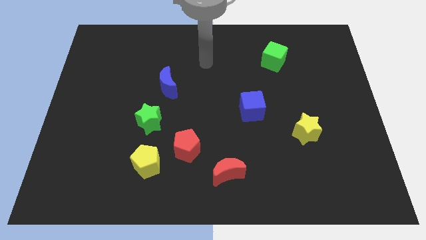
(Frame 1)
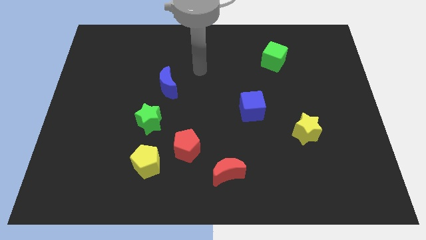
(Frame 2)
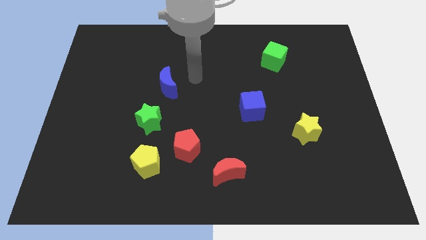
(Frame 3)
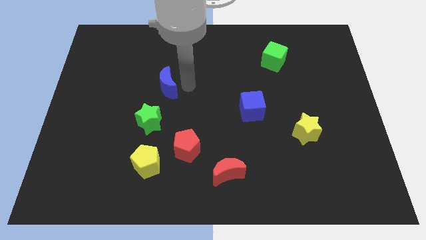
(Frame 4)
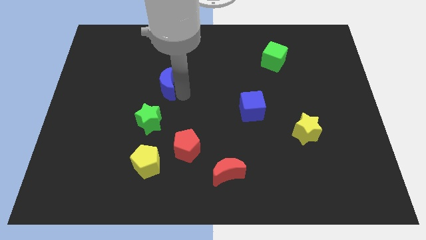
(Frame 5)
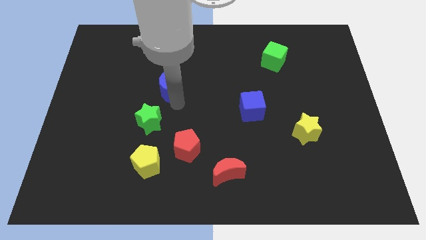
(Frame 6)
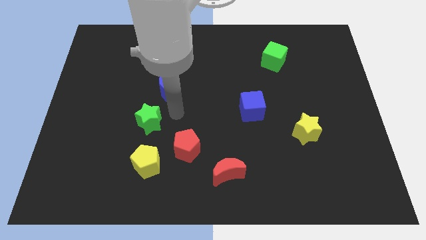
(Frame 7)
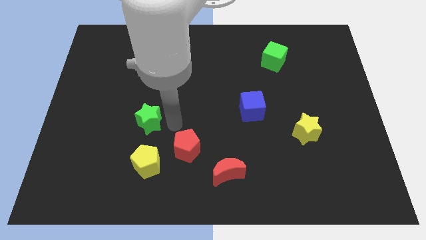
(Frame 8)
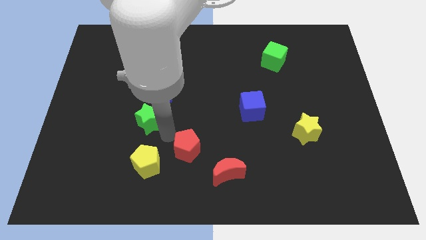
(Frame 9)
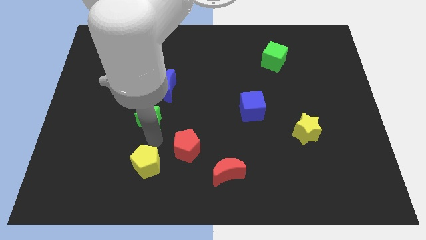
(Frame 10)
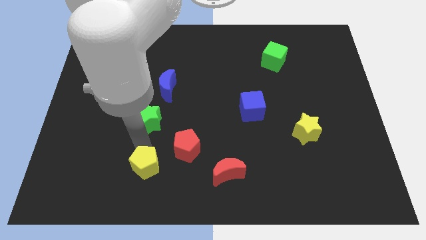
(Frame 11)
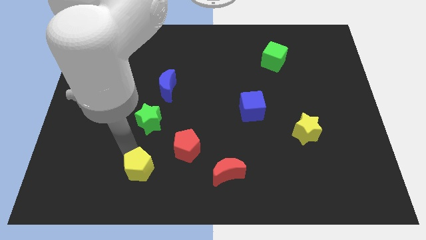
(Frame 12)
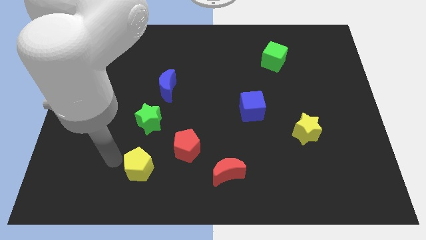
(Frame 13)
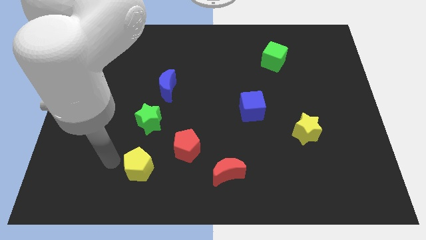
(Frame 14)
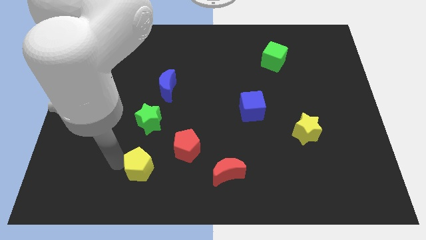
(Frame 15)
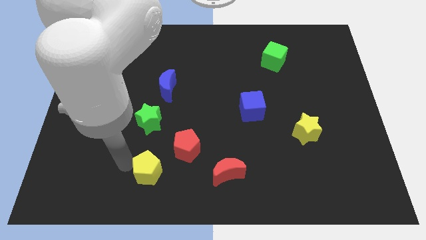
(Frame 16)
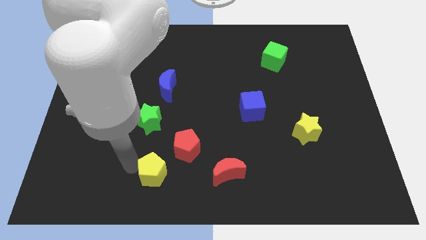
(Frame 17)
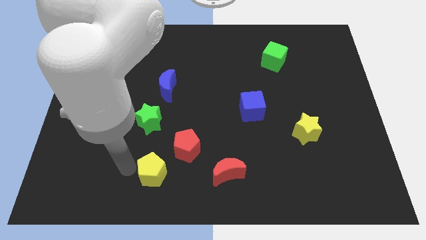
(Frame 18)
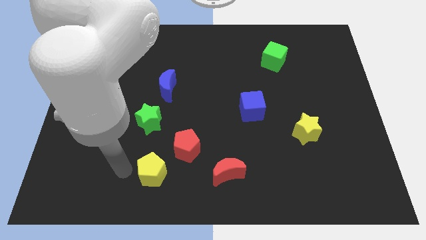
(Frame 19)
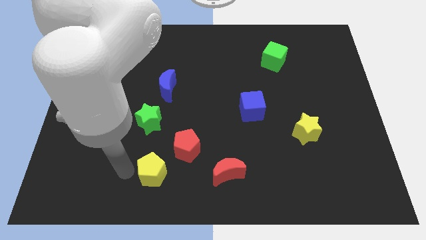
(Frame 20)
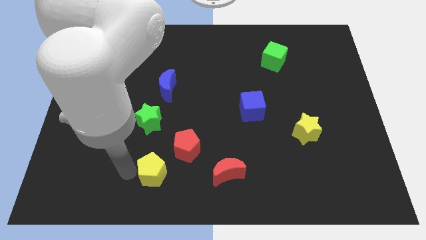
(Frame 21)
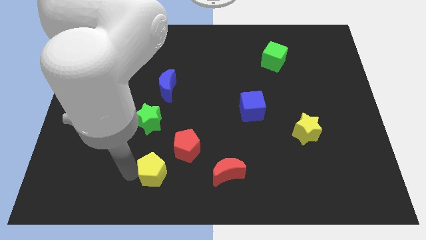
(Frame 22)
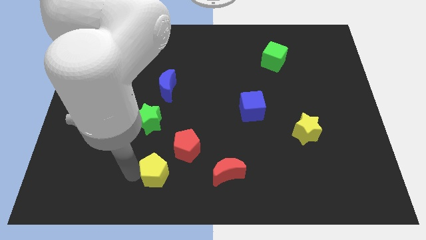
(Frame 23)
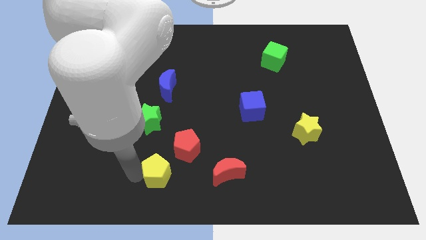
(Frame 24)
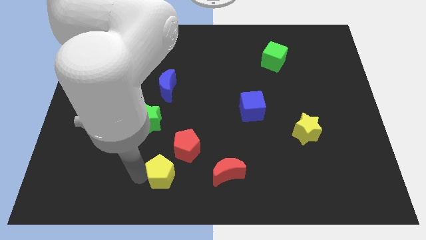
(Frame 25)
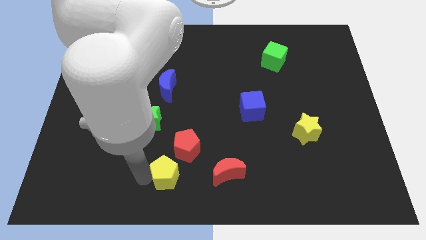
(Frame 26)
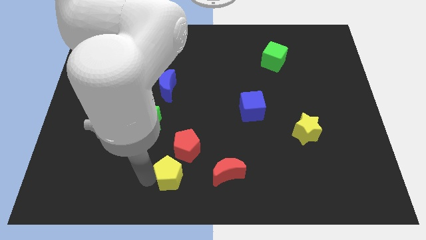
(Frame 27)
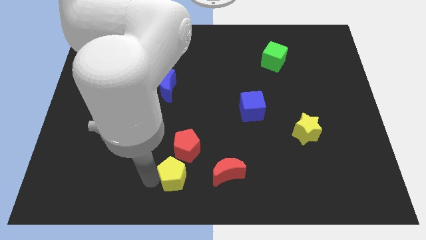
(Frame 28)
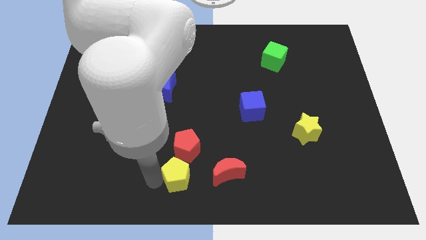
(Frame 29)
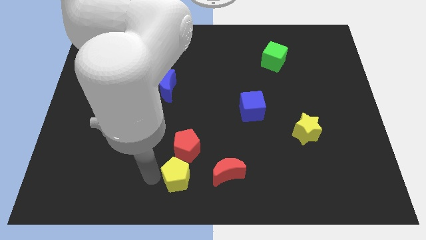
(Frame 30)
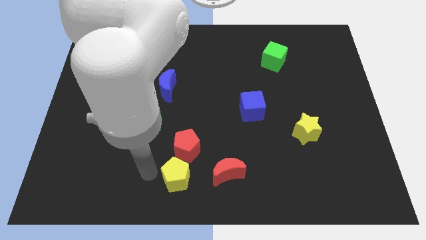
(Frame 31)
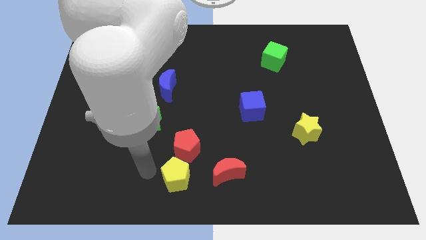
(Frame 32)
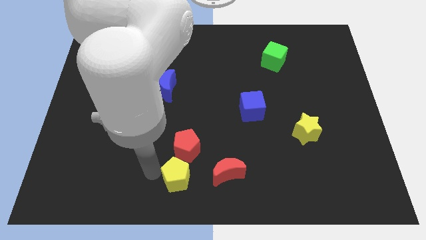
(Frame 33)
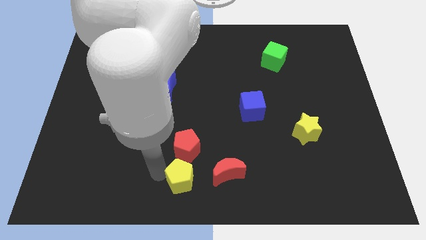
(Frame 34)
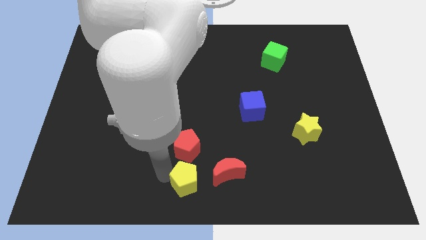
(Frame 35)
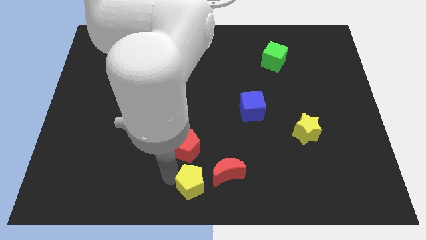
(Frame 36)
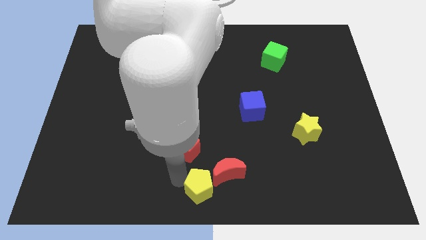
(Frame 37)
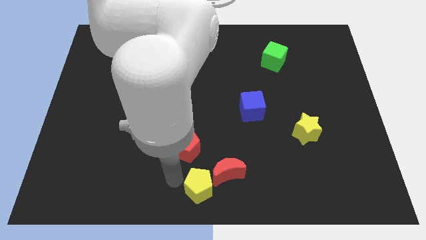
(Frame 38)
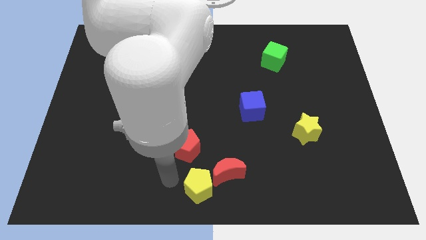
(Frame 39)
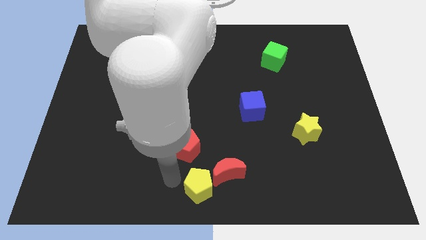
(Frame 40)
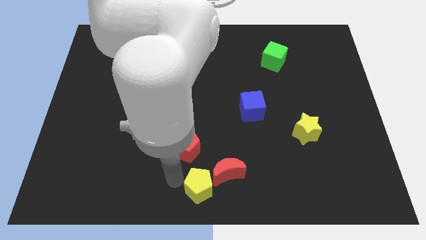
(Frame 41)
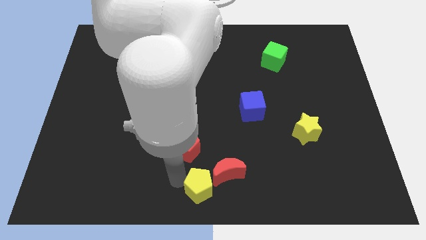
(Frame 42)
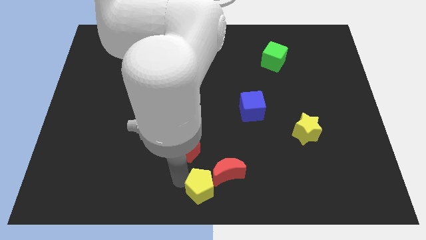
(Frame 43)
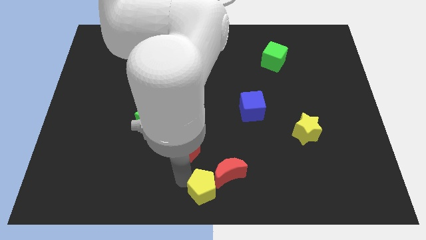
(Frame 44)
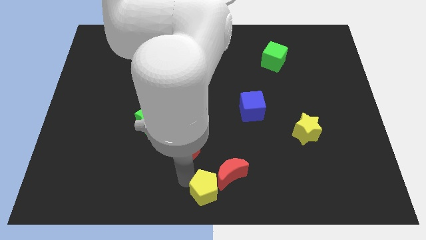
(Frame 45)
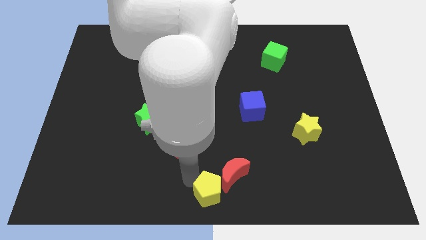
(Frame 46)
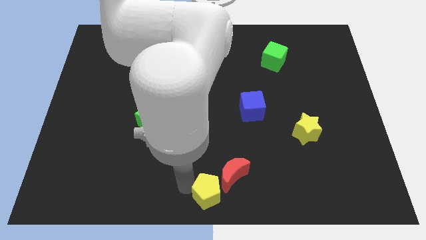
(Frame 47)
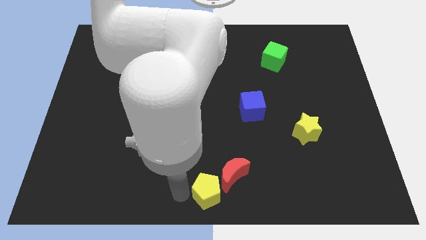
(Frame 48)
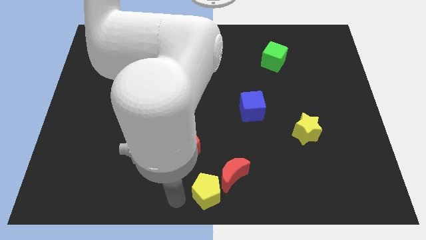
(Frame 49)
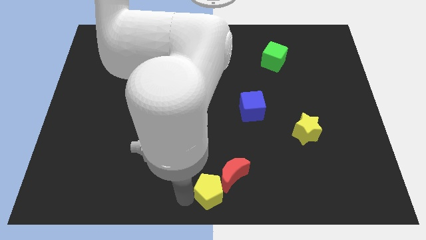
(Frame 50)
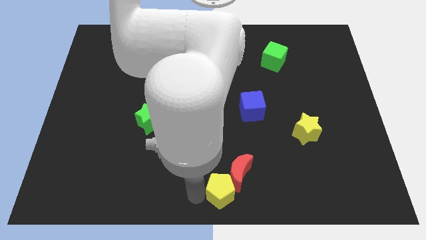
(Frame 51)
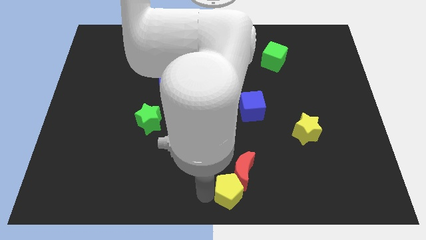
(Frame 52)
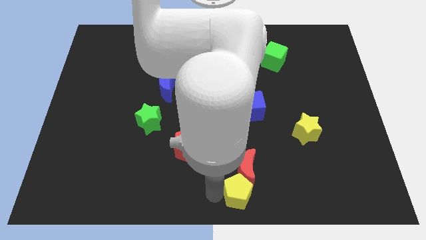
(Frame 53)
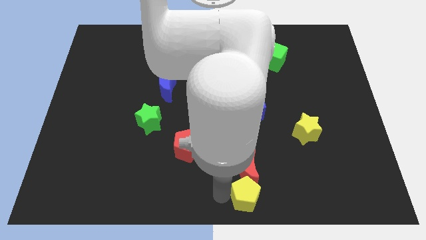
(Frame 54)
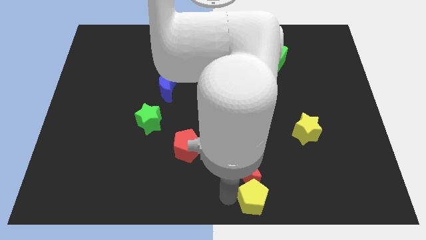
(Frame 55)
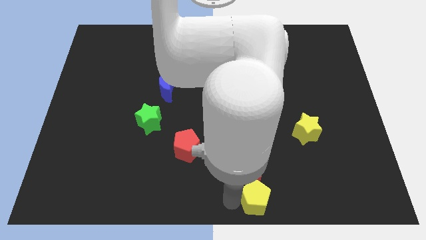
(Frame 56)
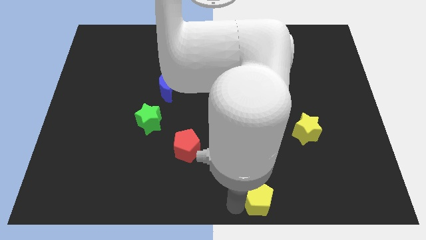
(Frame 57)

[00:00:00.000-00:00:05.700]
move the yellow pentagon to the right

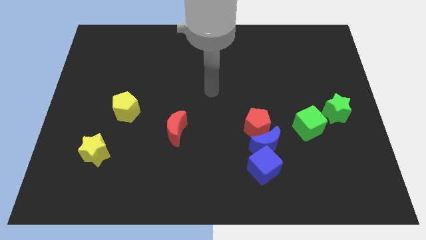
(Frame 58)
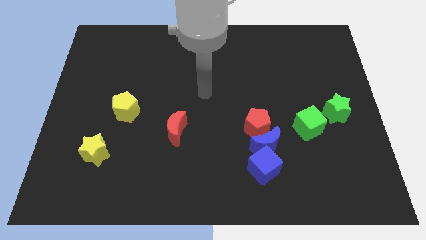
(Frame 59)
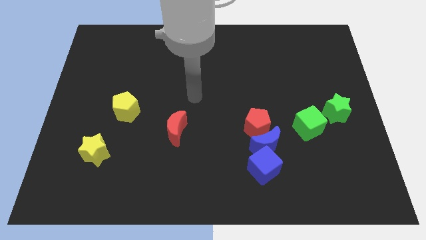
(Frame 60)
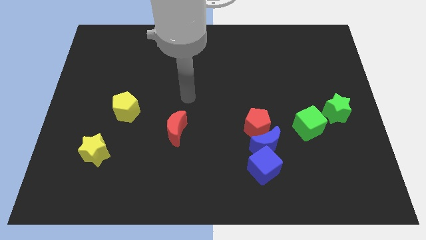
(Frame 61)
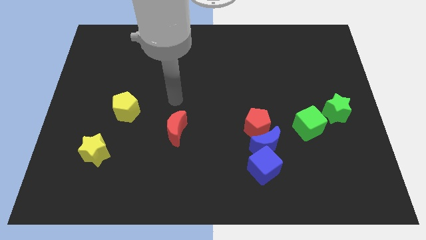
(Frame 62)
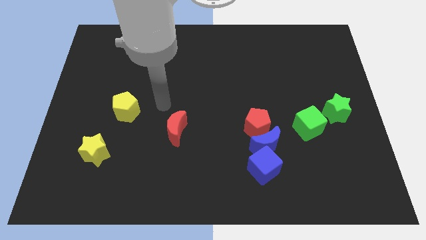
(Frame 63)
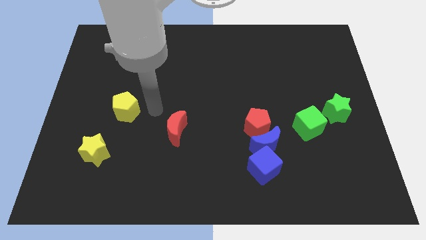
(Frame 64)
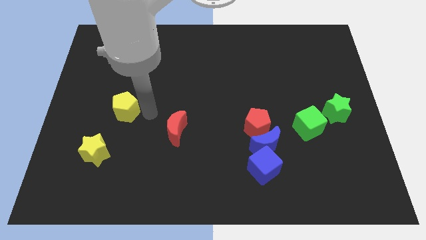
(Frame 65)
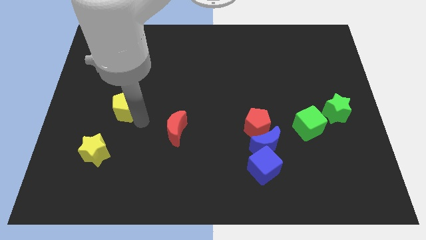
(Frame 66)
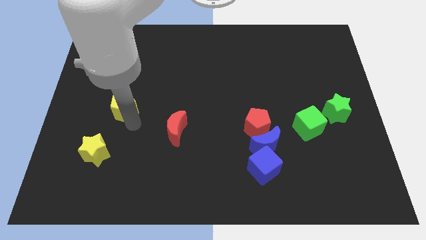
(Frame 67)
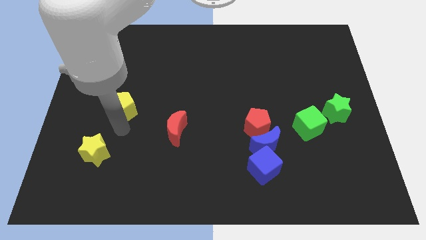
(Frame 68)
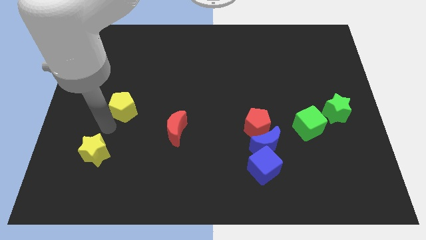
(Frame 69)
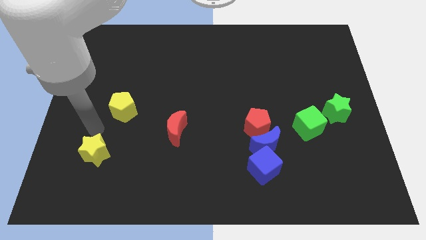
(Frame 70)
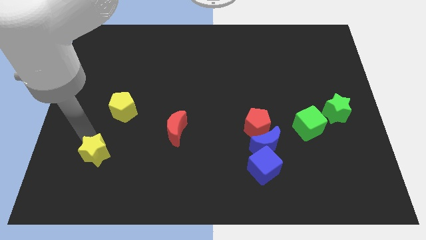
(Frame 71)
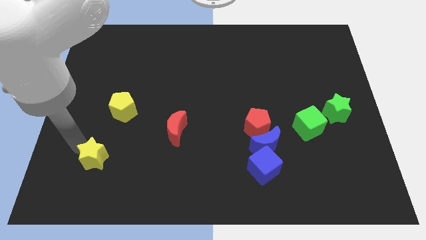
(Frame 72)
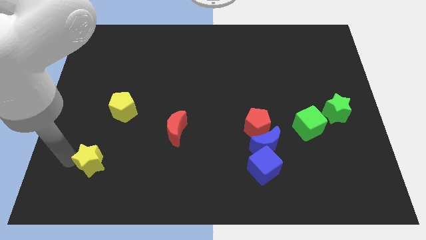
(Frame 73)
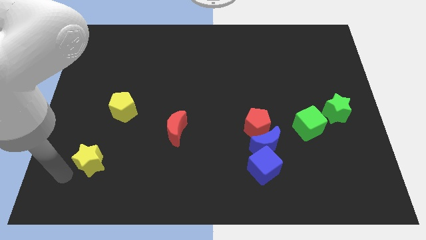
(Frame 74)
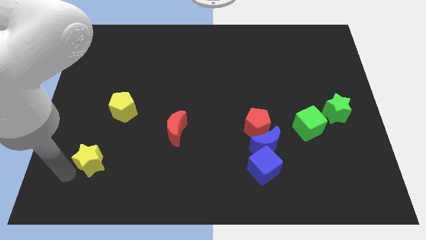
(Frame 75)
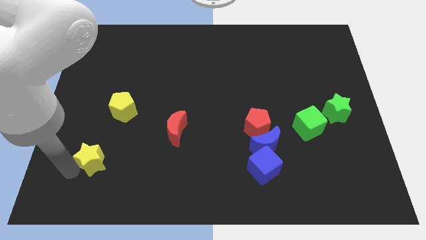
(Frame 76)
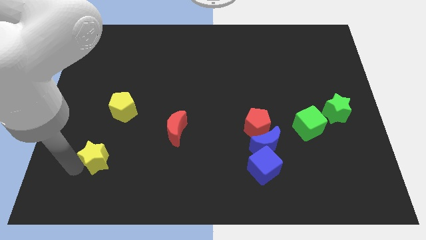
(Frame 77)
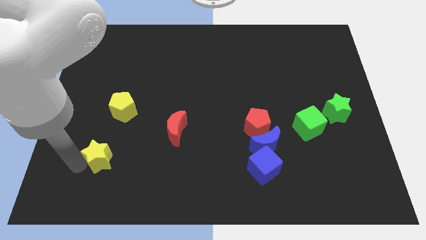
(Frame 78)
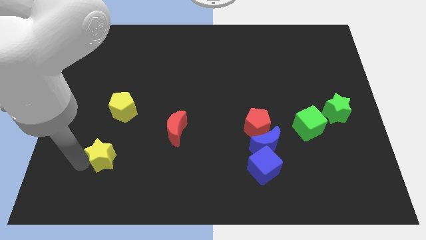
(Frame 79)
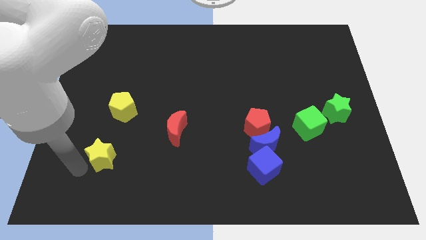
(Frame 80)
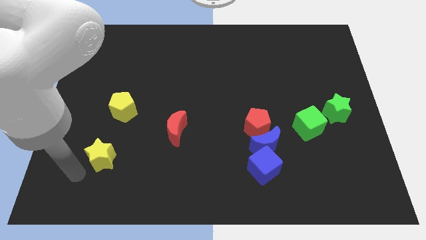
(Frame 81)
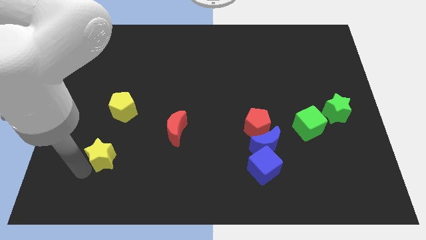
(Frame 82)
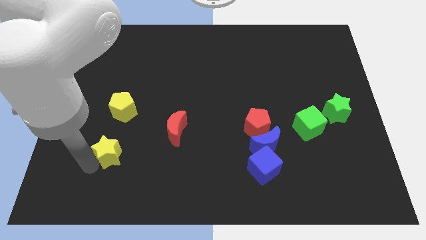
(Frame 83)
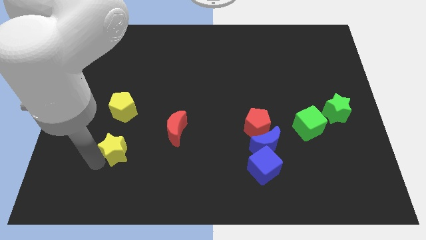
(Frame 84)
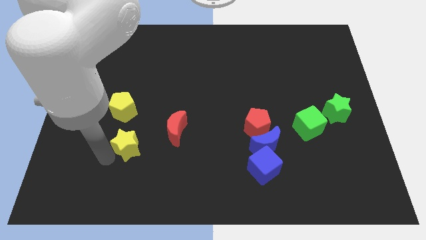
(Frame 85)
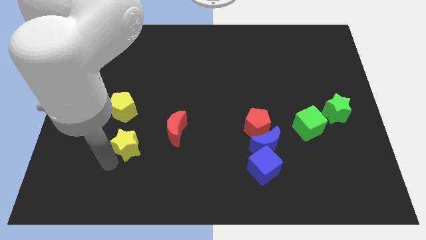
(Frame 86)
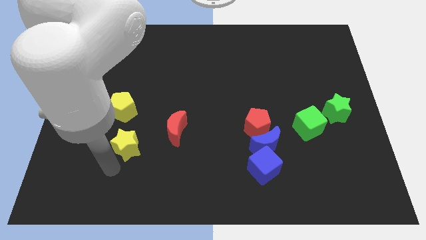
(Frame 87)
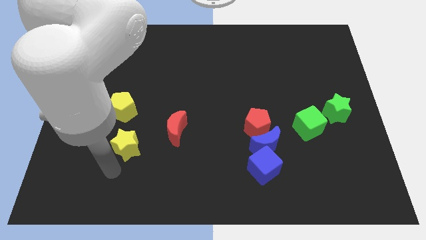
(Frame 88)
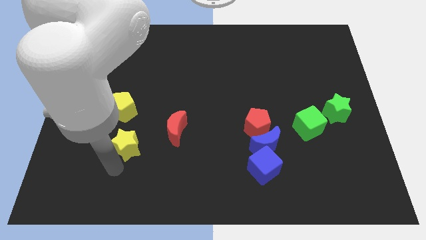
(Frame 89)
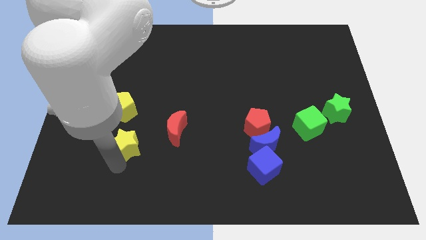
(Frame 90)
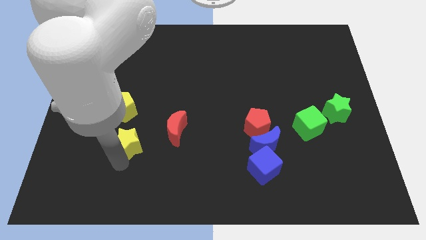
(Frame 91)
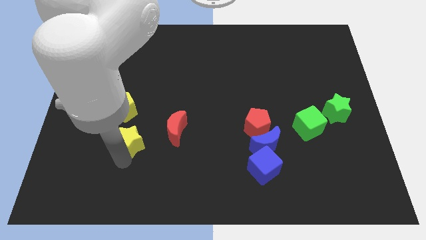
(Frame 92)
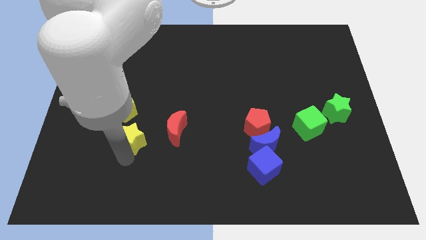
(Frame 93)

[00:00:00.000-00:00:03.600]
move the yellow star upwards and then right a bit
